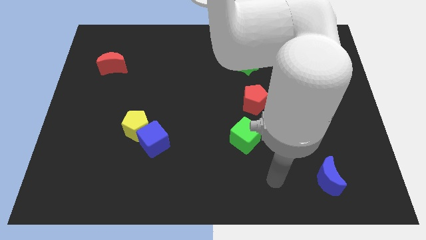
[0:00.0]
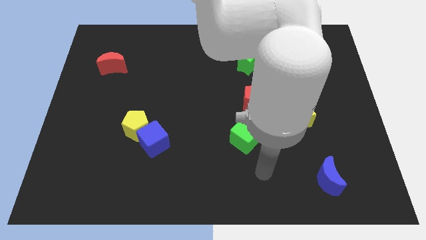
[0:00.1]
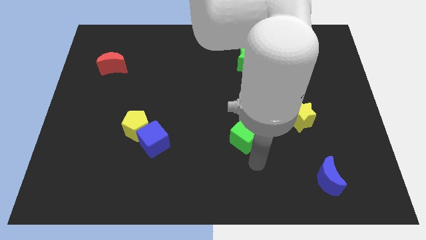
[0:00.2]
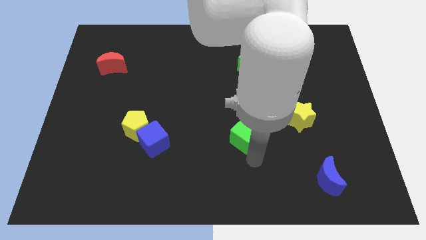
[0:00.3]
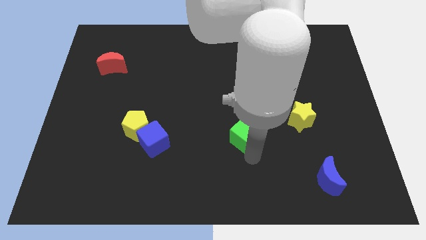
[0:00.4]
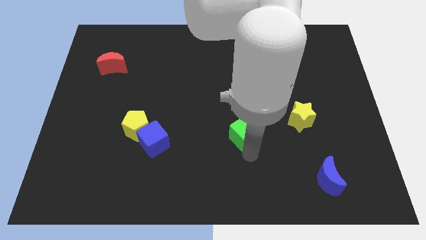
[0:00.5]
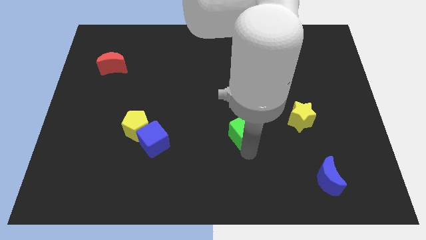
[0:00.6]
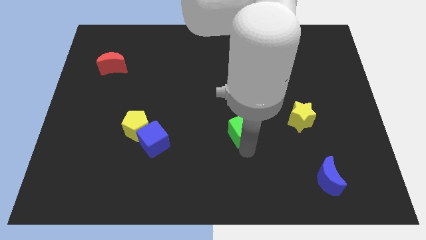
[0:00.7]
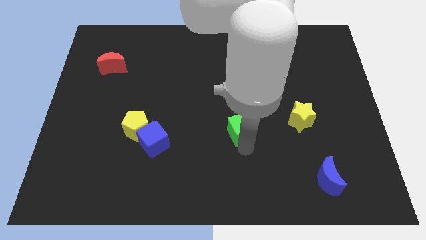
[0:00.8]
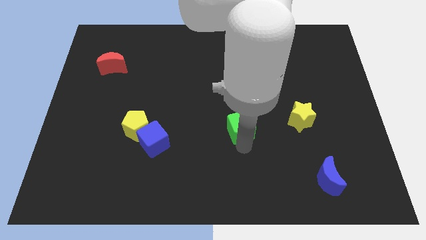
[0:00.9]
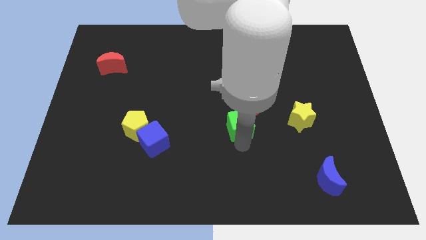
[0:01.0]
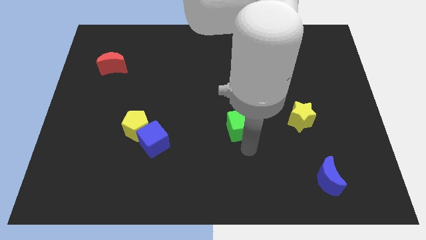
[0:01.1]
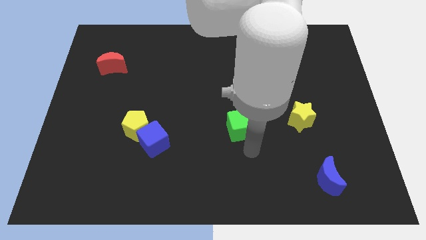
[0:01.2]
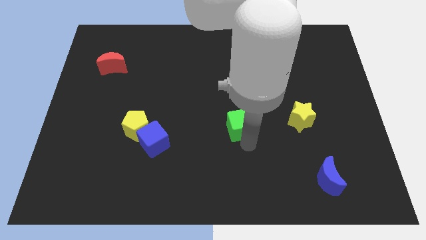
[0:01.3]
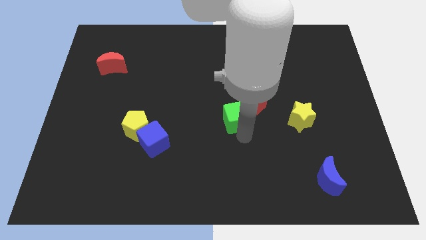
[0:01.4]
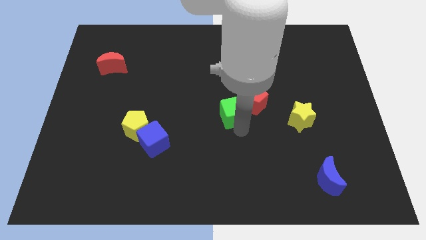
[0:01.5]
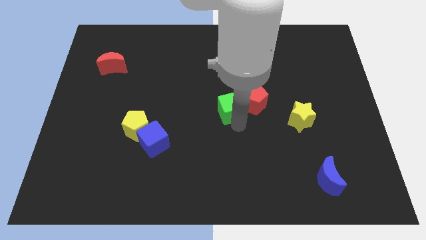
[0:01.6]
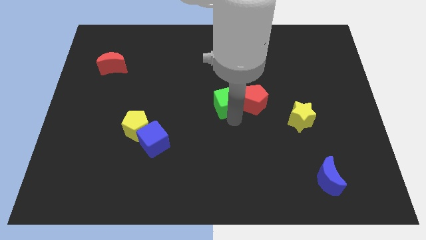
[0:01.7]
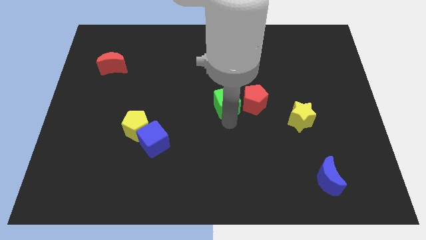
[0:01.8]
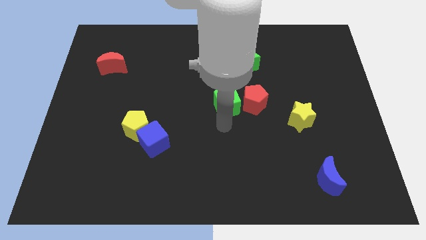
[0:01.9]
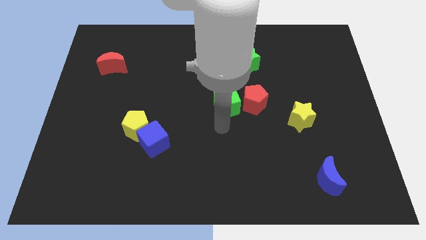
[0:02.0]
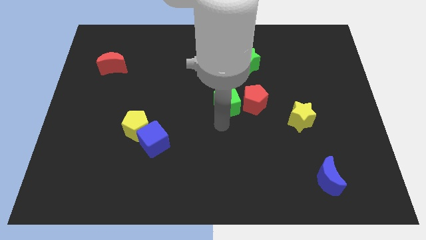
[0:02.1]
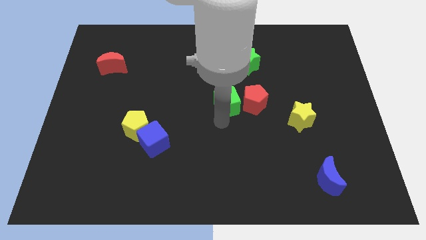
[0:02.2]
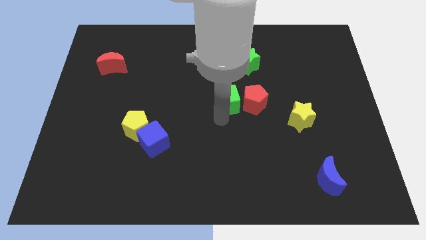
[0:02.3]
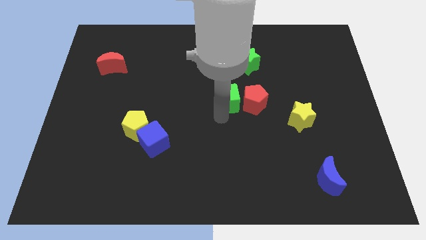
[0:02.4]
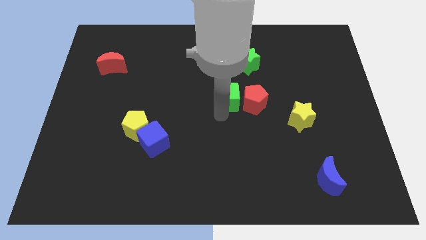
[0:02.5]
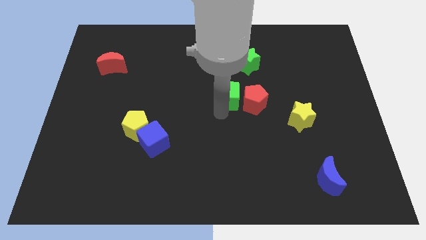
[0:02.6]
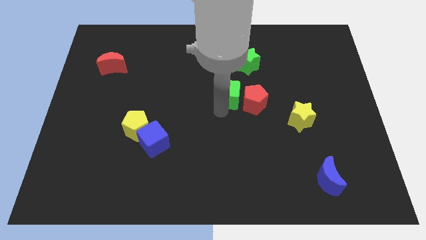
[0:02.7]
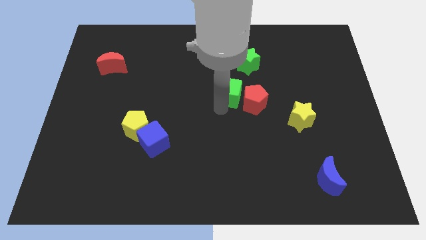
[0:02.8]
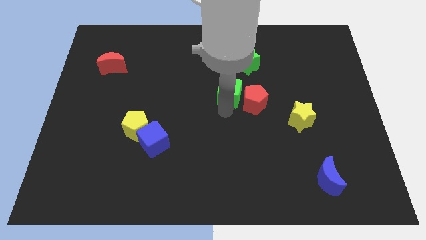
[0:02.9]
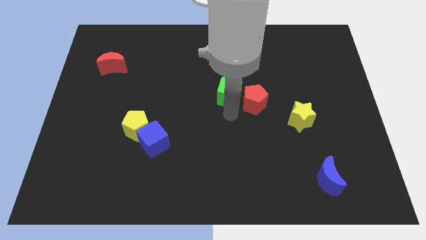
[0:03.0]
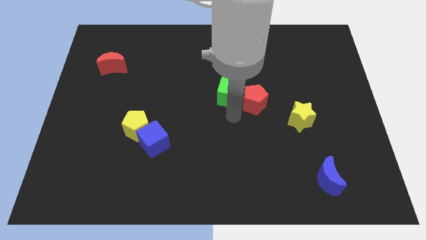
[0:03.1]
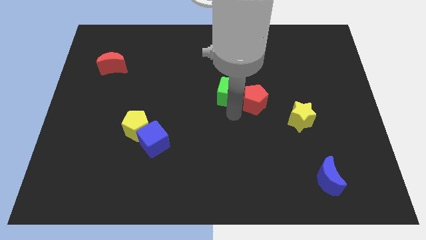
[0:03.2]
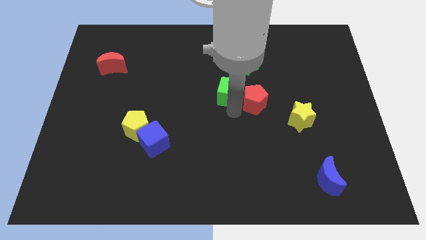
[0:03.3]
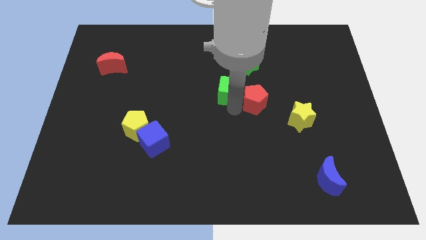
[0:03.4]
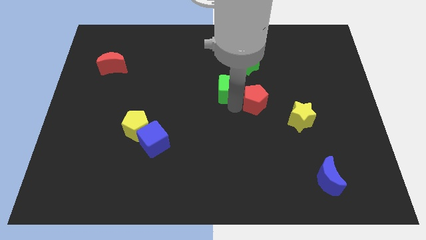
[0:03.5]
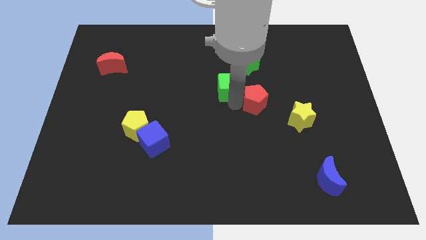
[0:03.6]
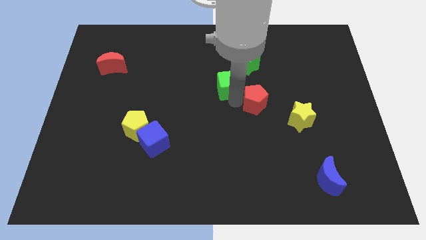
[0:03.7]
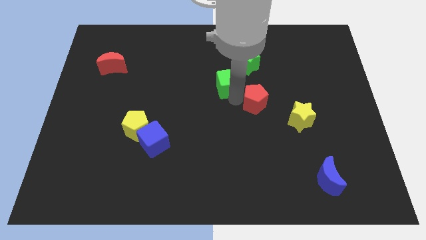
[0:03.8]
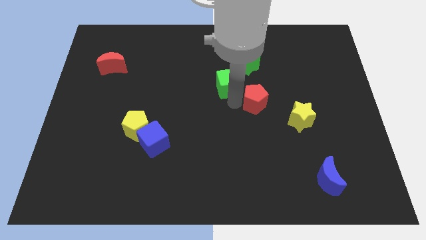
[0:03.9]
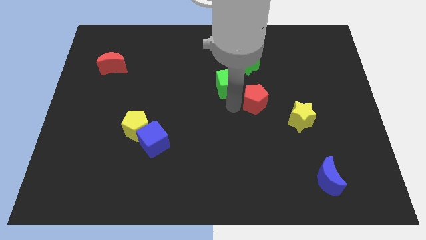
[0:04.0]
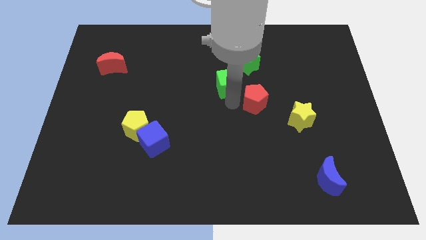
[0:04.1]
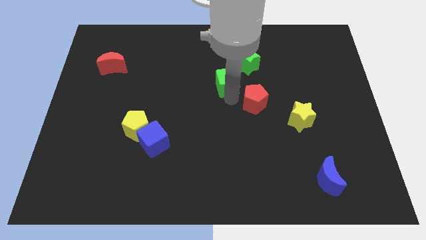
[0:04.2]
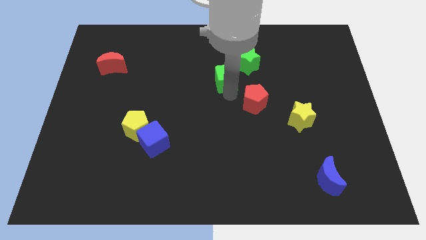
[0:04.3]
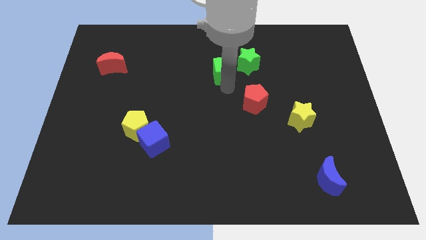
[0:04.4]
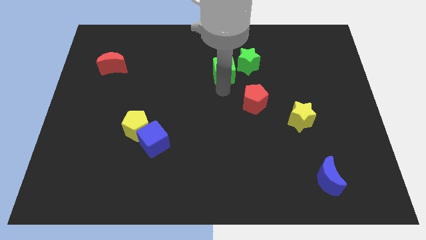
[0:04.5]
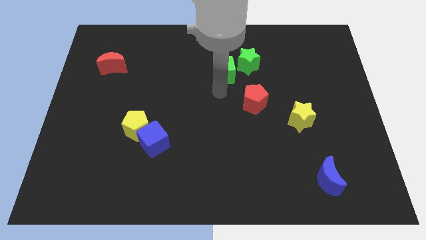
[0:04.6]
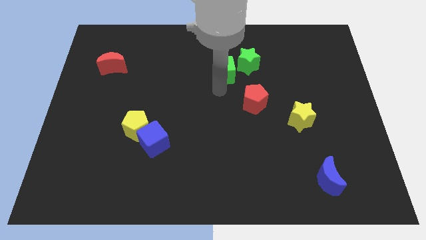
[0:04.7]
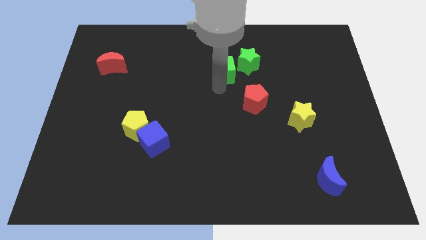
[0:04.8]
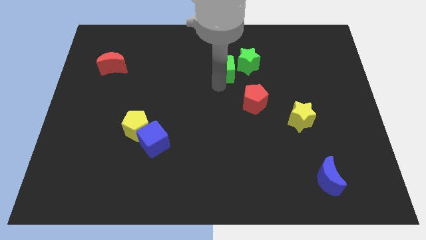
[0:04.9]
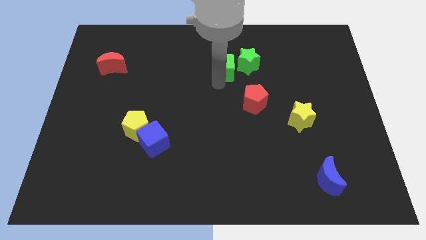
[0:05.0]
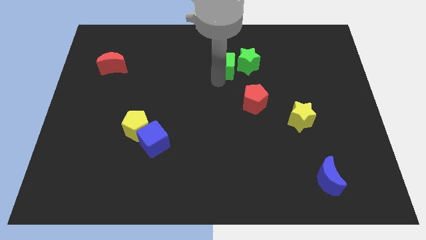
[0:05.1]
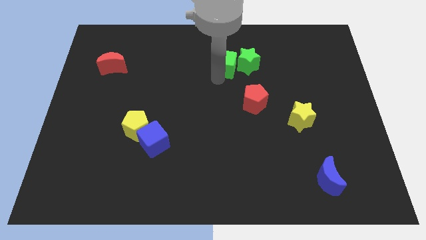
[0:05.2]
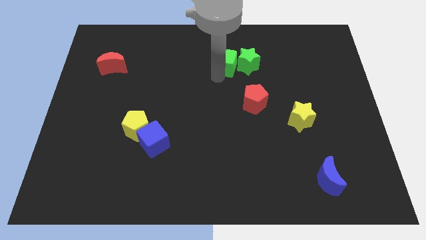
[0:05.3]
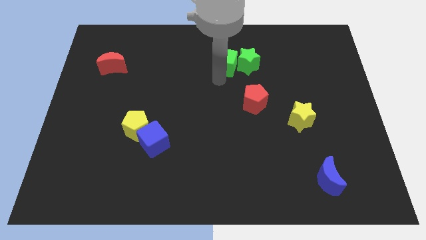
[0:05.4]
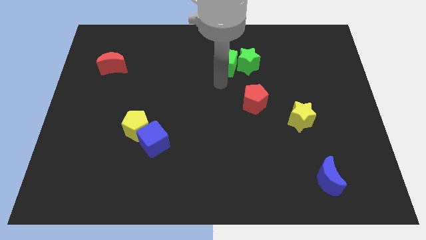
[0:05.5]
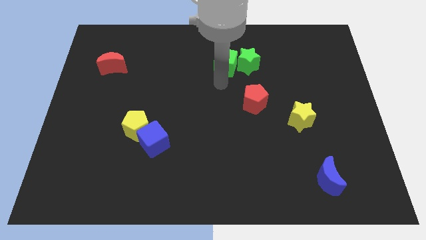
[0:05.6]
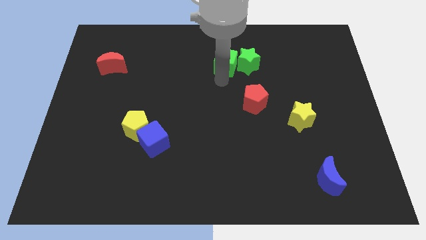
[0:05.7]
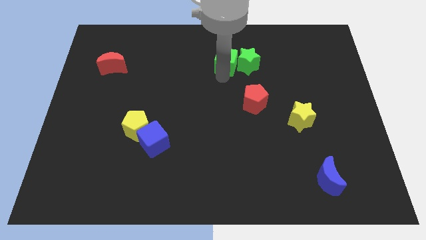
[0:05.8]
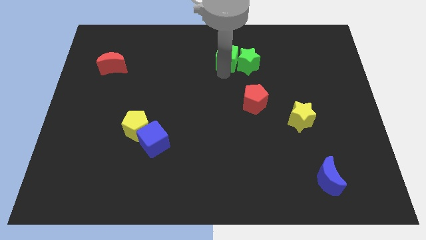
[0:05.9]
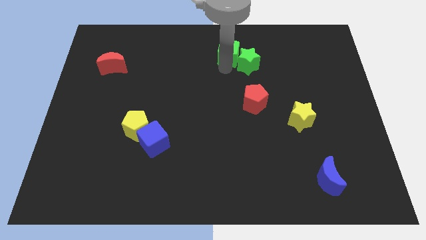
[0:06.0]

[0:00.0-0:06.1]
put the green cube to the top side
